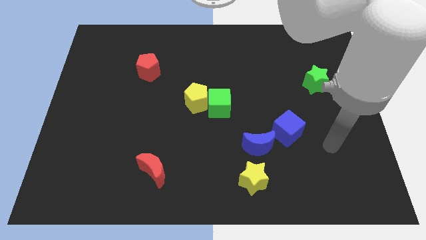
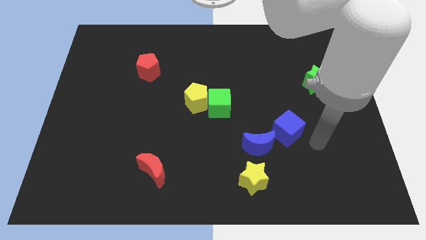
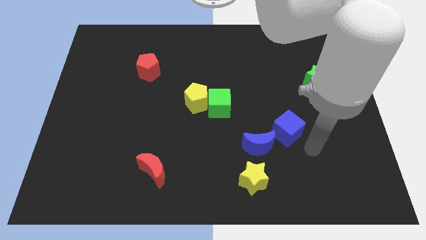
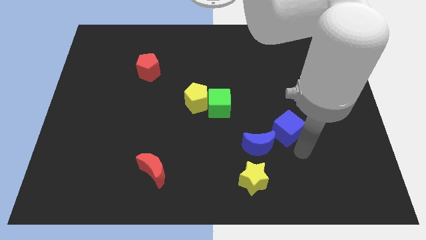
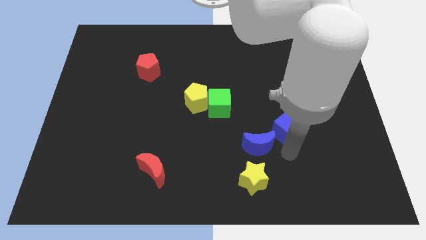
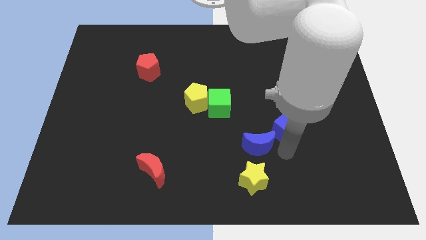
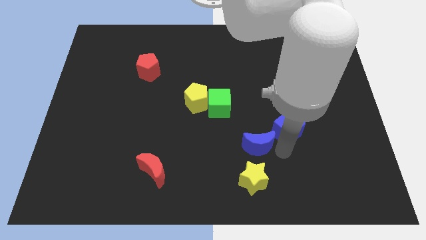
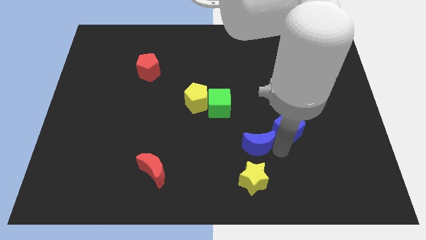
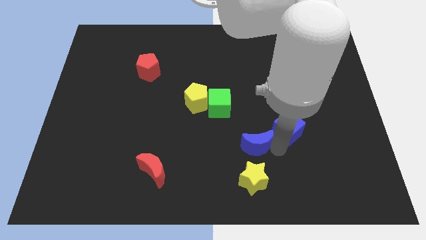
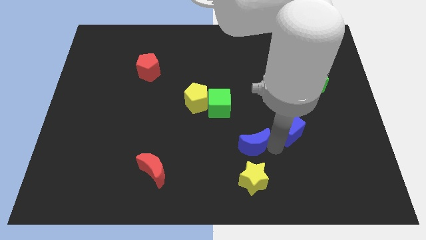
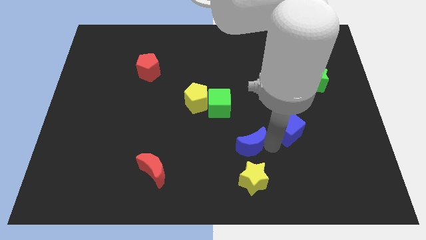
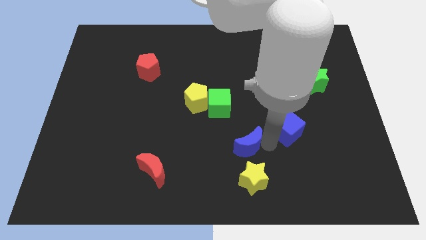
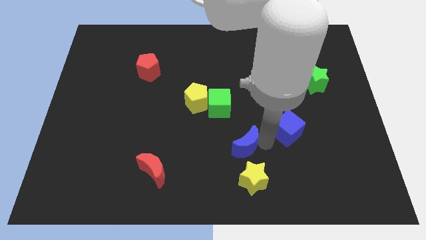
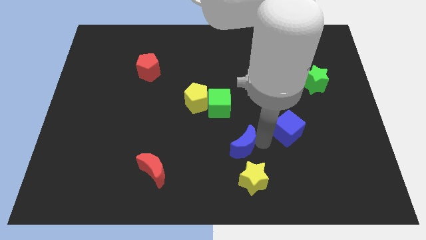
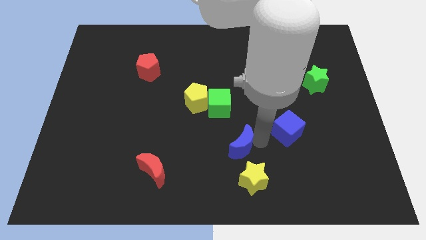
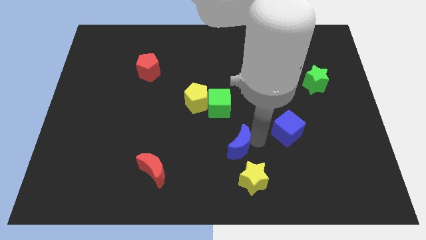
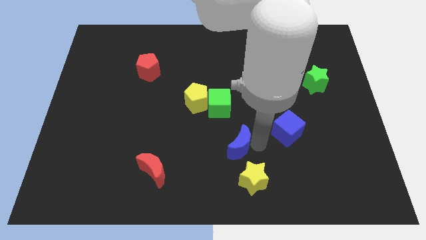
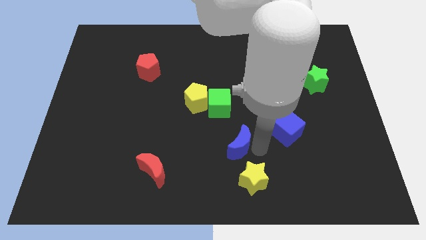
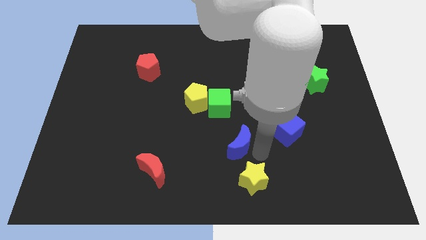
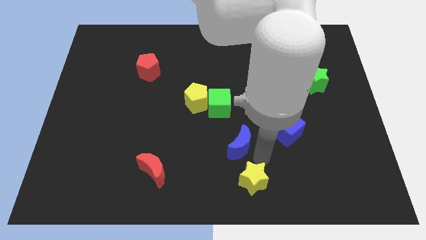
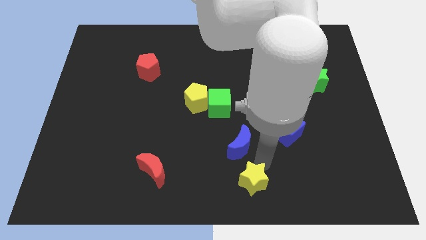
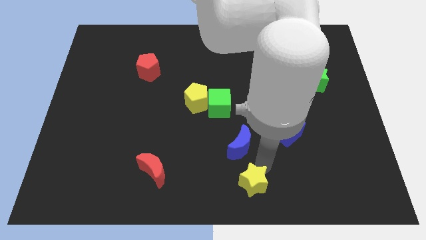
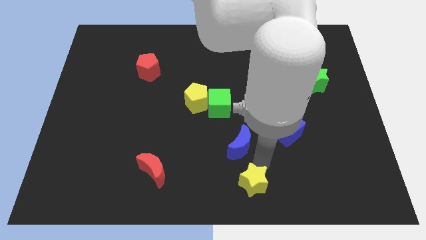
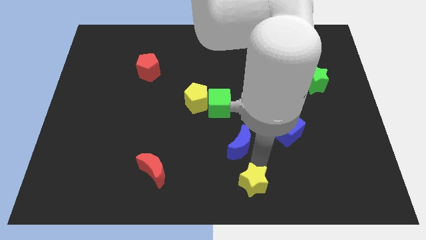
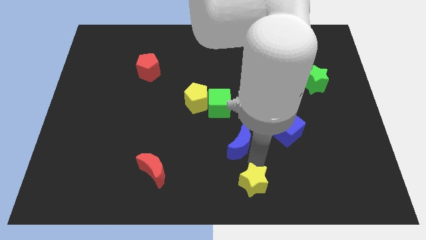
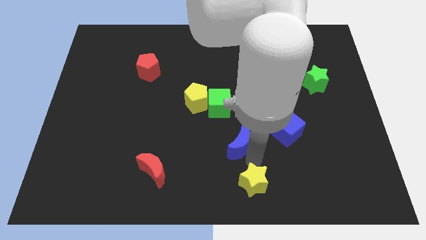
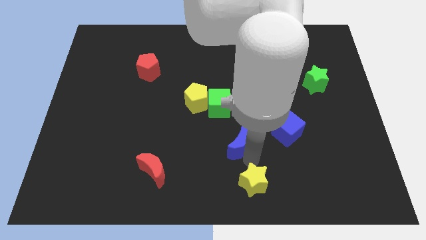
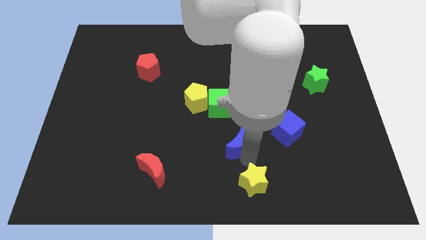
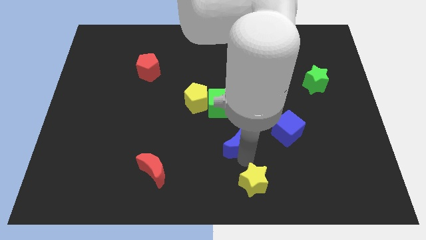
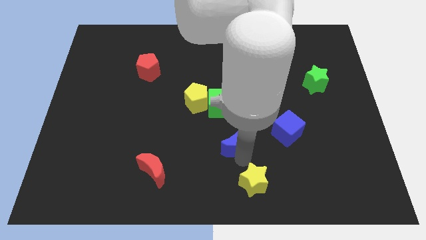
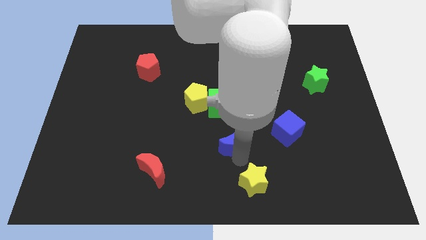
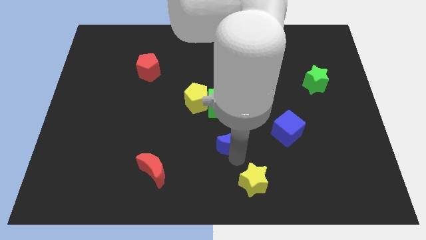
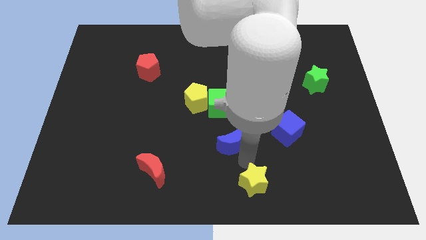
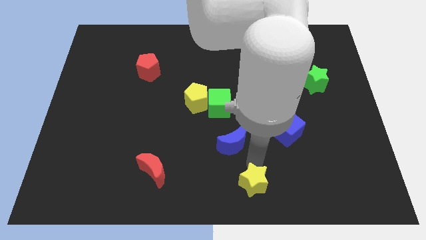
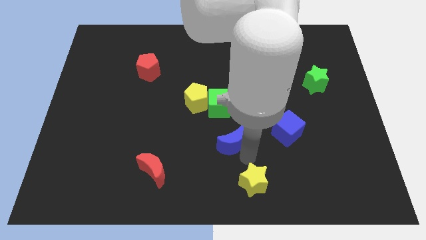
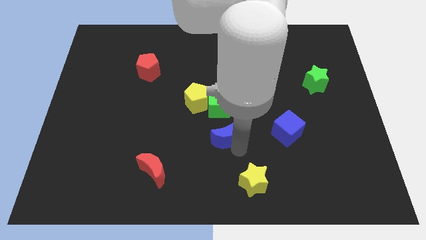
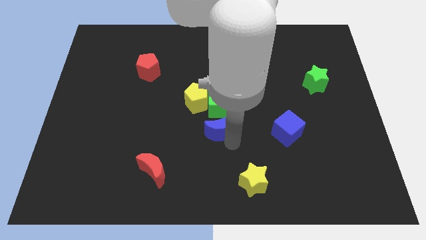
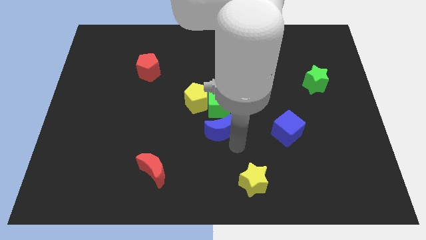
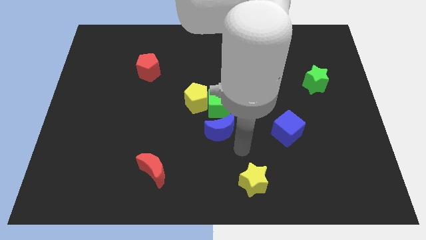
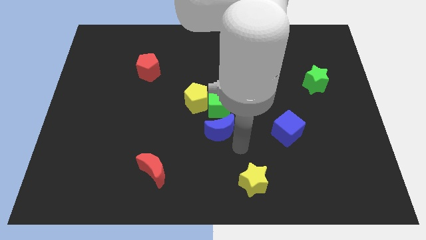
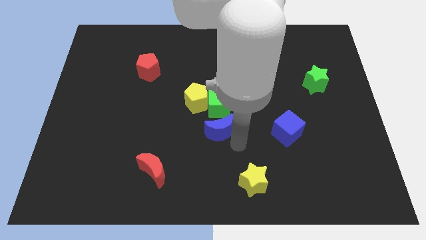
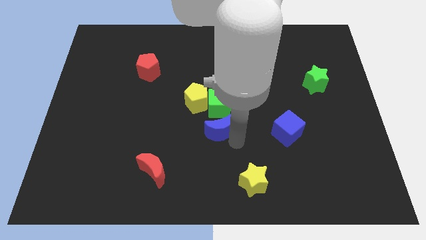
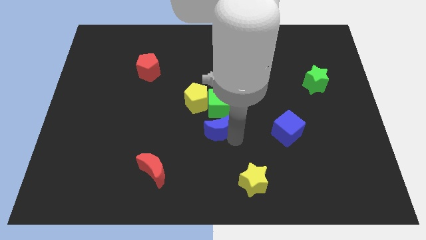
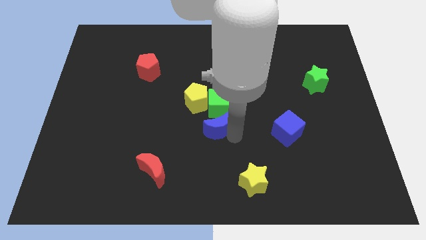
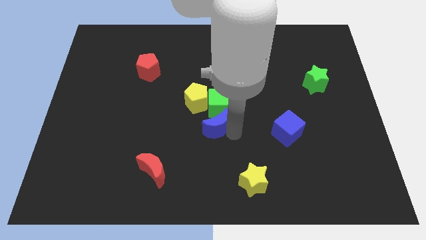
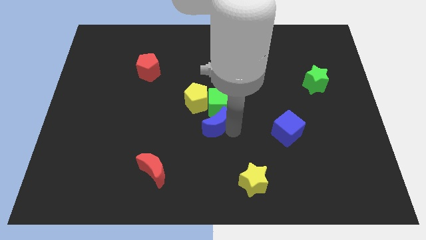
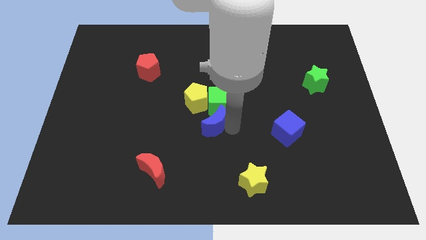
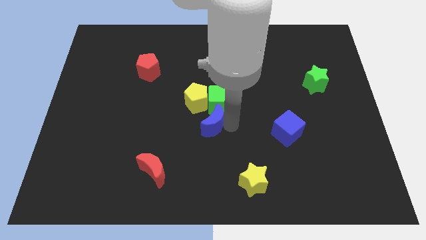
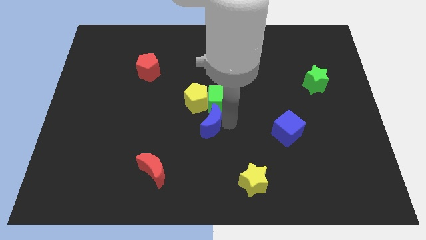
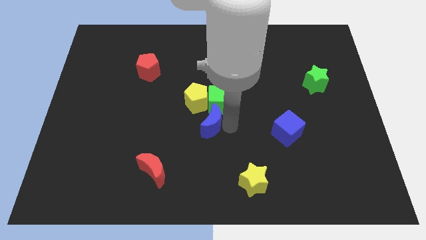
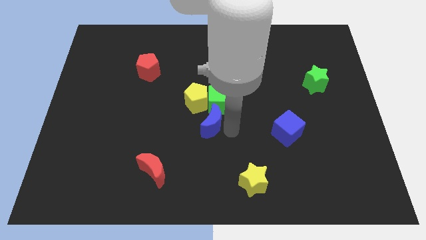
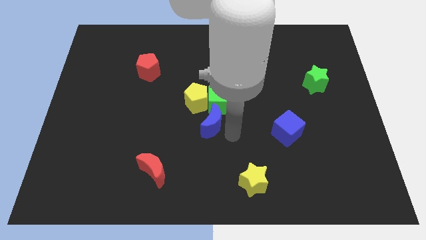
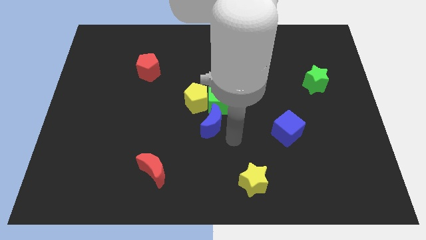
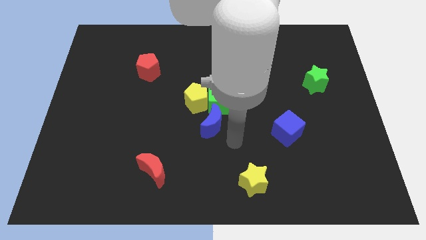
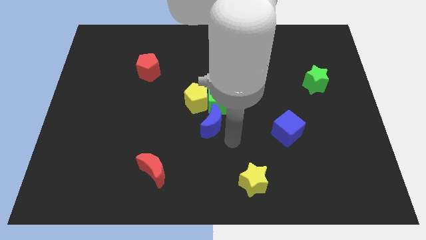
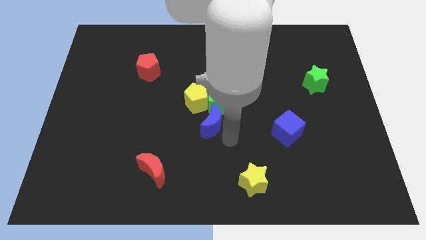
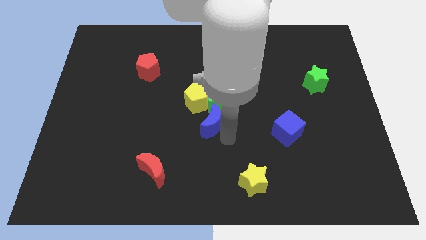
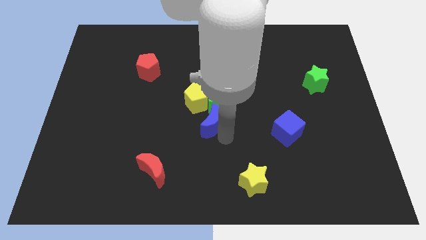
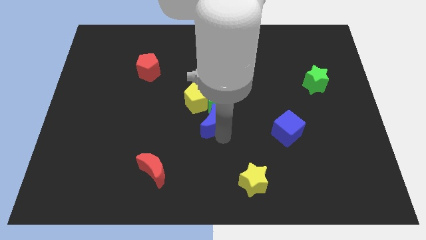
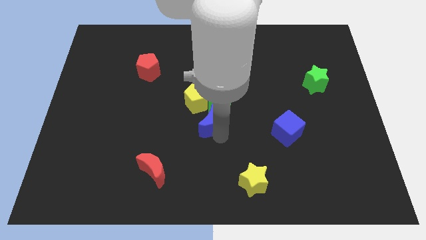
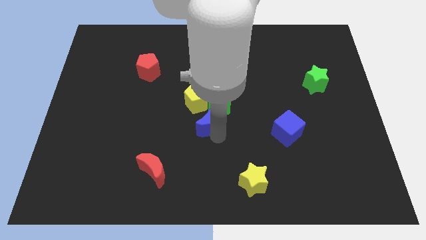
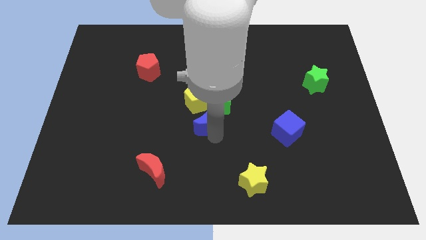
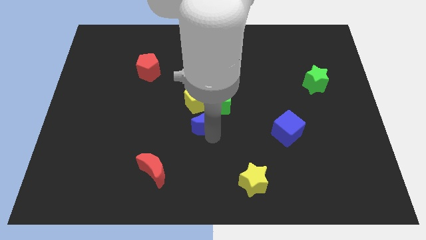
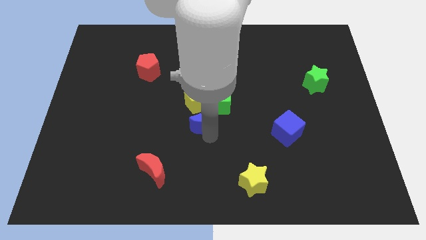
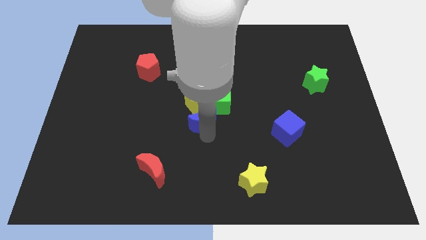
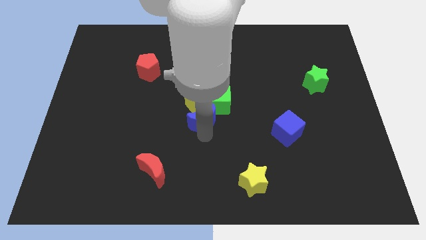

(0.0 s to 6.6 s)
put the blue moon to the yellow pentagon
